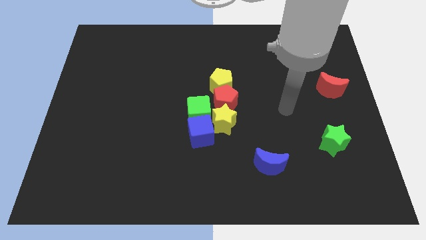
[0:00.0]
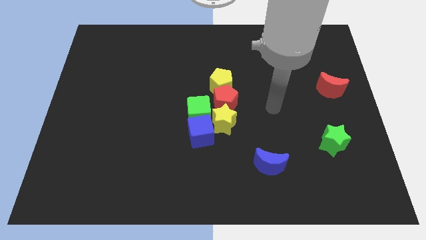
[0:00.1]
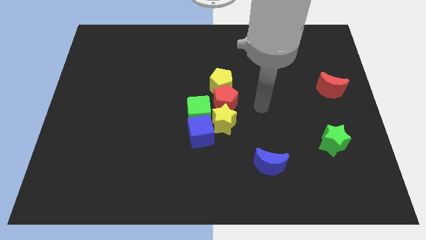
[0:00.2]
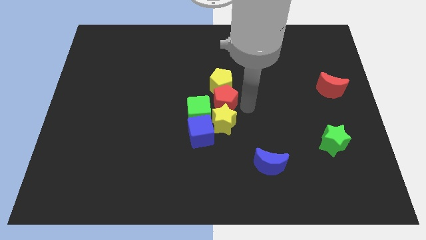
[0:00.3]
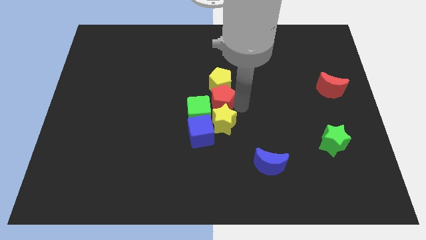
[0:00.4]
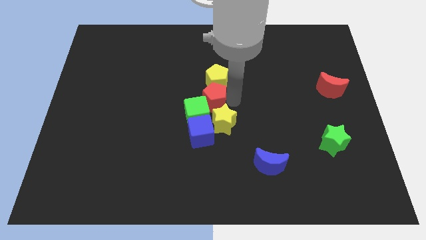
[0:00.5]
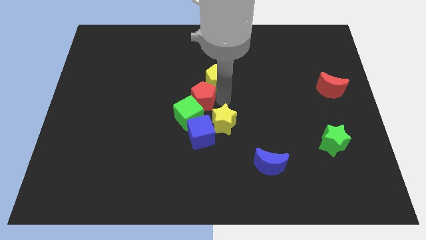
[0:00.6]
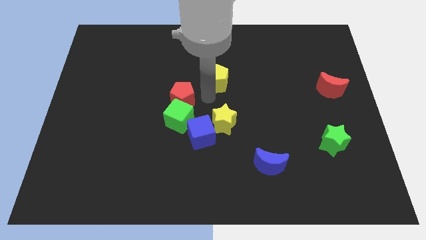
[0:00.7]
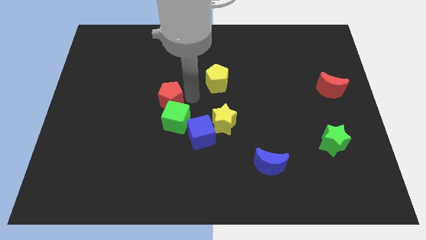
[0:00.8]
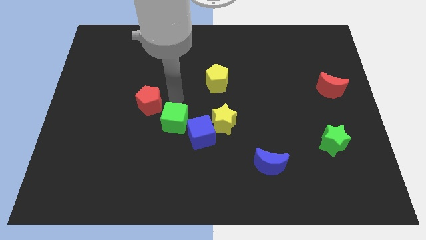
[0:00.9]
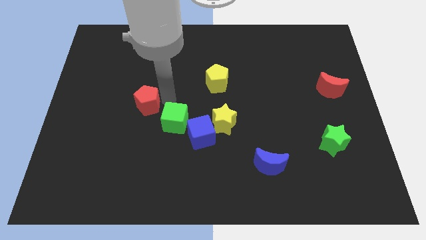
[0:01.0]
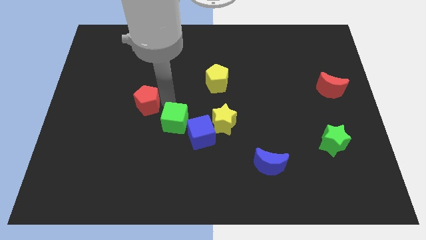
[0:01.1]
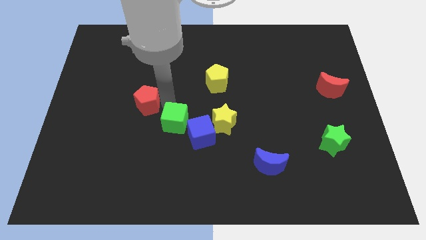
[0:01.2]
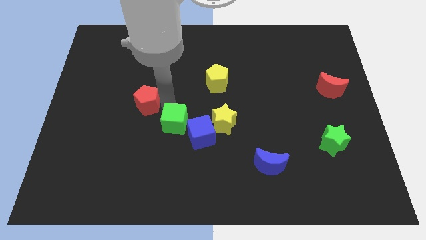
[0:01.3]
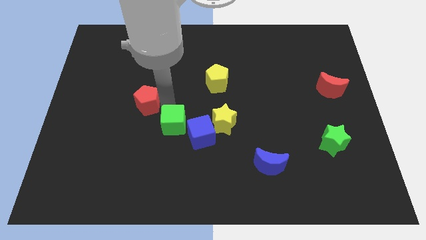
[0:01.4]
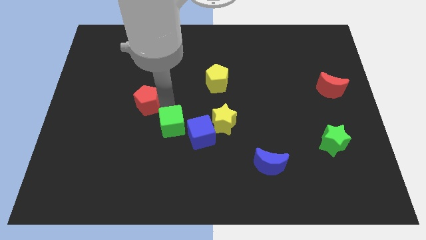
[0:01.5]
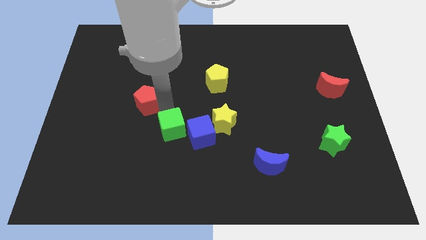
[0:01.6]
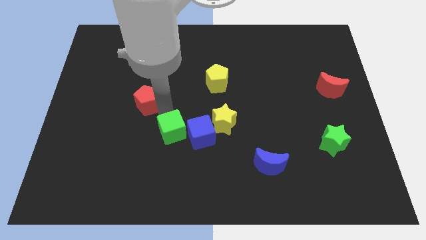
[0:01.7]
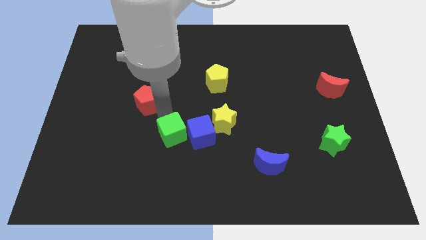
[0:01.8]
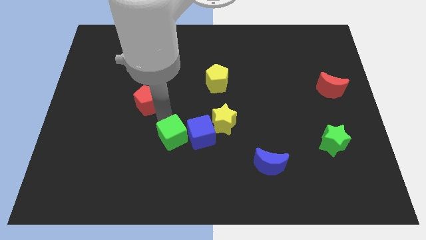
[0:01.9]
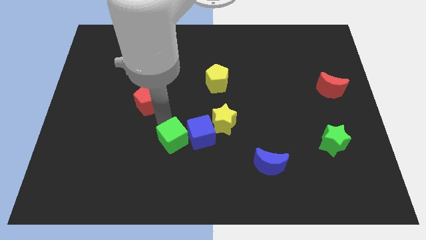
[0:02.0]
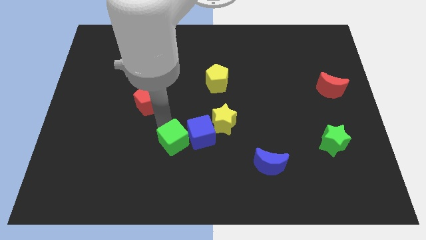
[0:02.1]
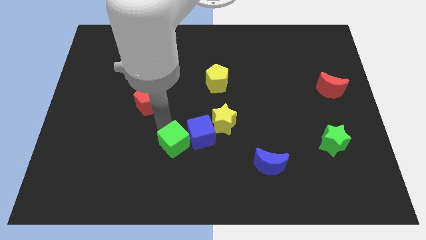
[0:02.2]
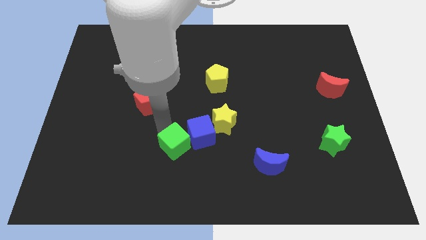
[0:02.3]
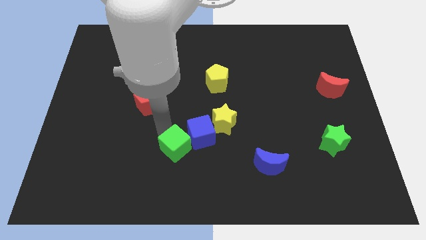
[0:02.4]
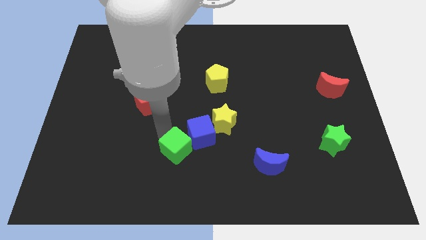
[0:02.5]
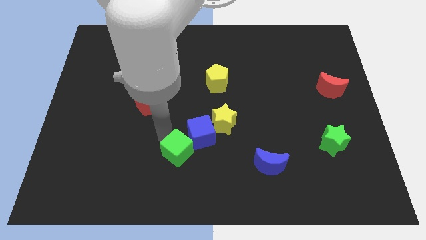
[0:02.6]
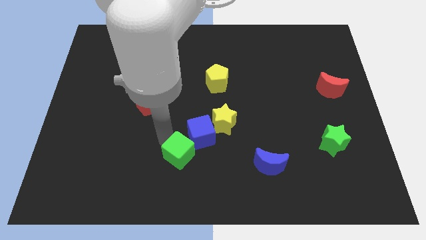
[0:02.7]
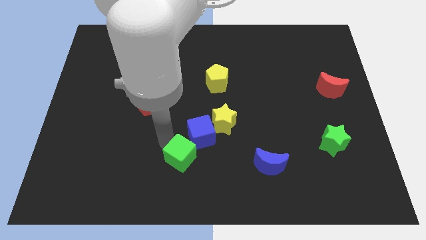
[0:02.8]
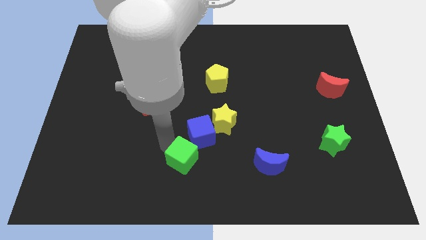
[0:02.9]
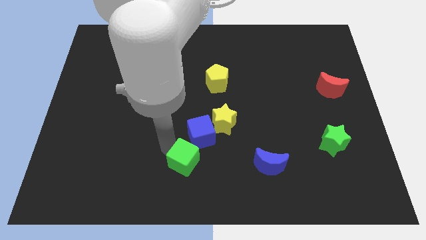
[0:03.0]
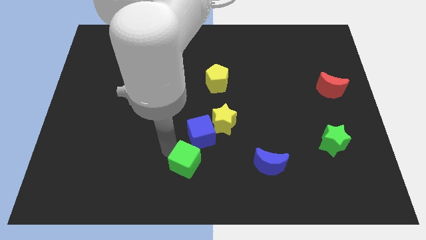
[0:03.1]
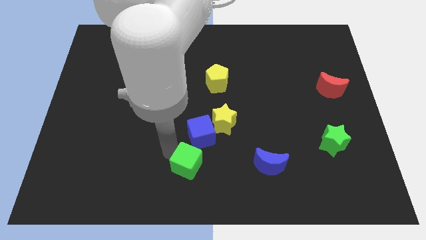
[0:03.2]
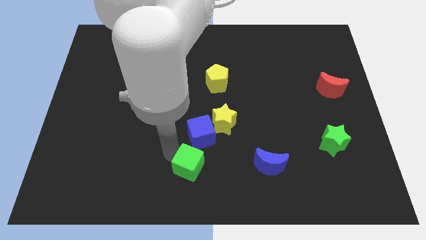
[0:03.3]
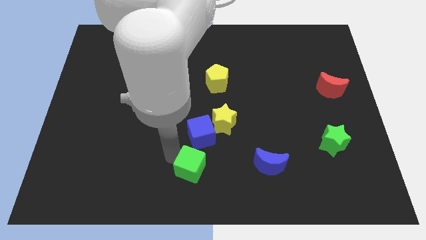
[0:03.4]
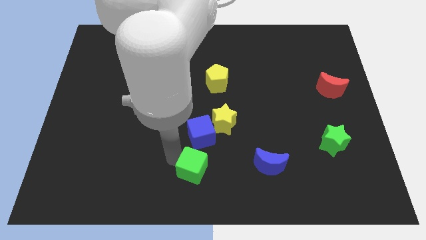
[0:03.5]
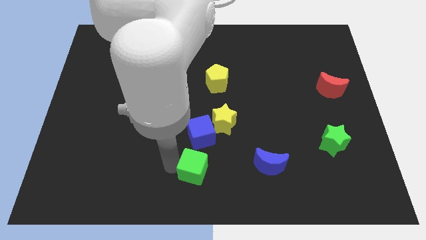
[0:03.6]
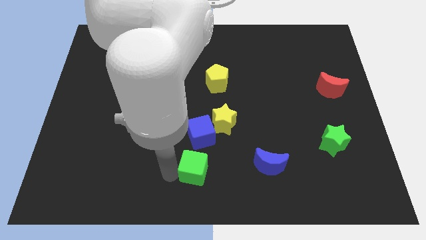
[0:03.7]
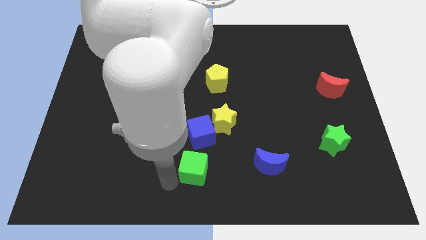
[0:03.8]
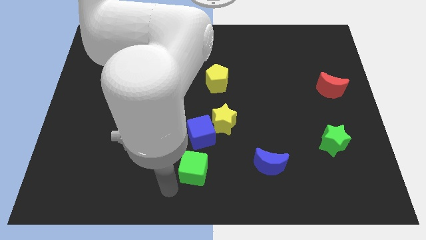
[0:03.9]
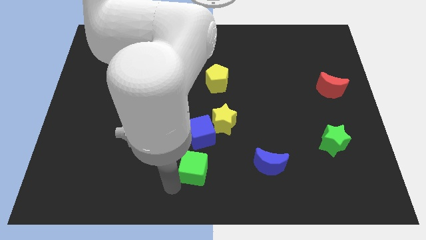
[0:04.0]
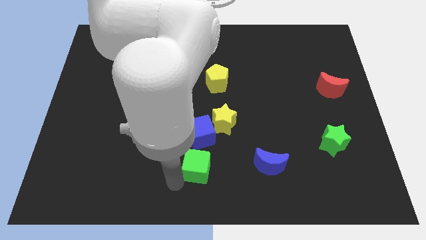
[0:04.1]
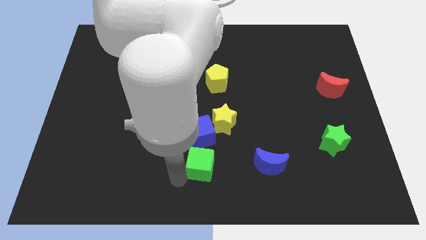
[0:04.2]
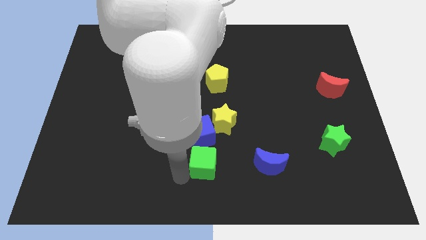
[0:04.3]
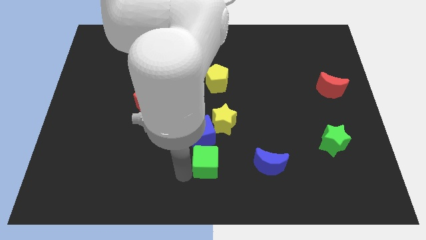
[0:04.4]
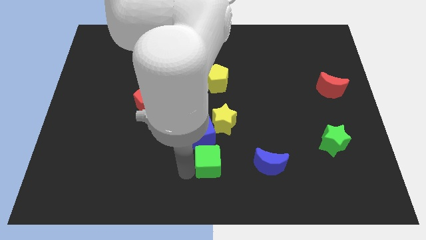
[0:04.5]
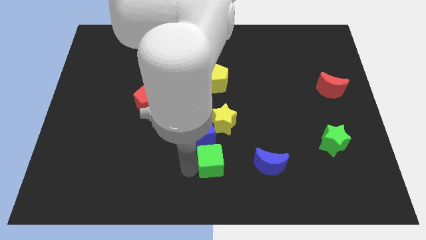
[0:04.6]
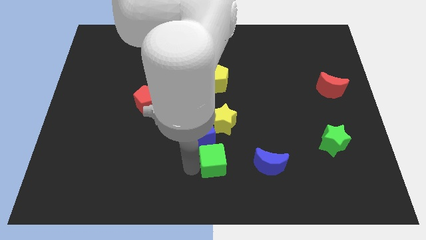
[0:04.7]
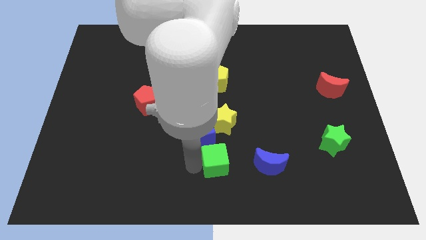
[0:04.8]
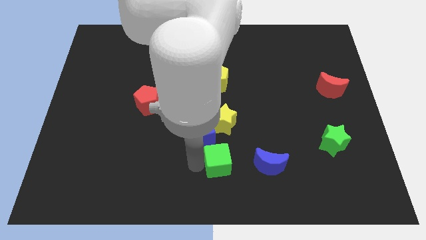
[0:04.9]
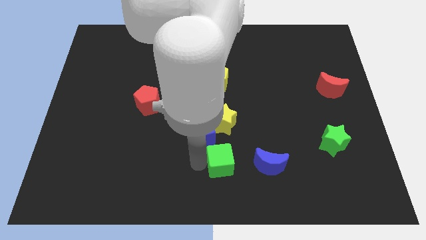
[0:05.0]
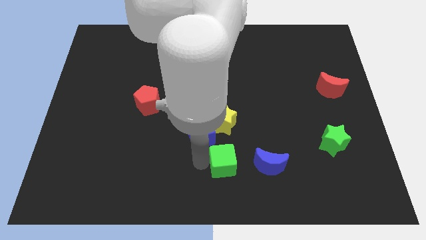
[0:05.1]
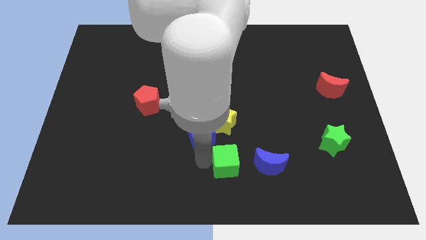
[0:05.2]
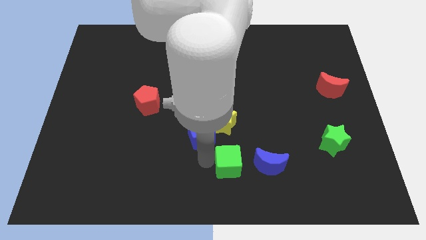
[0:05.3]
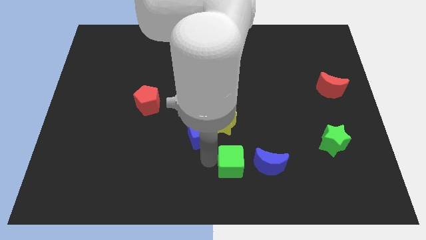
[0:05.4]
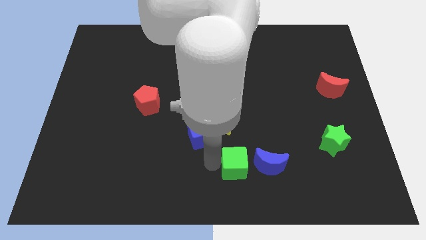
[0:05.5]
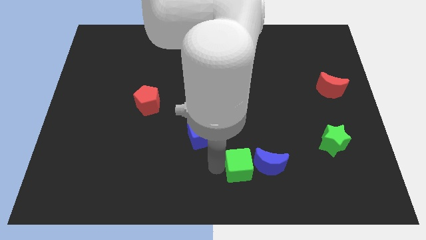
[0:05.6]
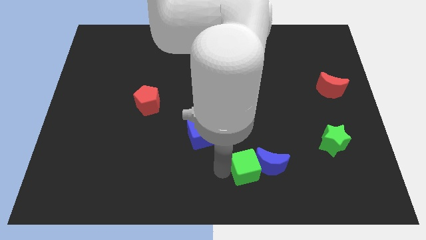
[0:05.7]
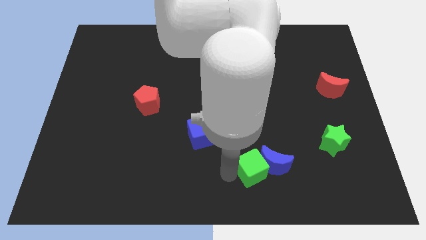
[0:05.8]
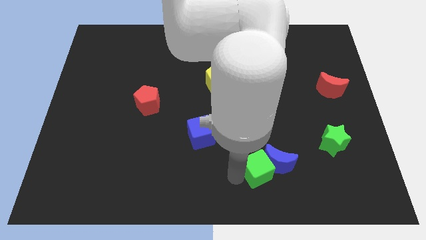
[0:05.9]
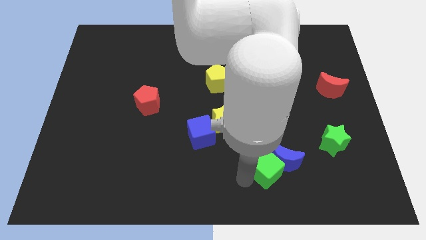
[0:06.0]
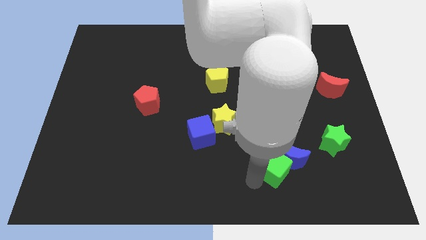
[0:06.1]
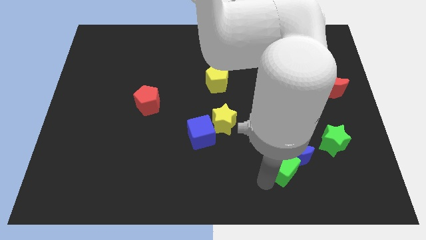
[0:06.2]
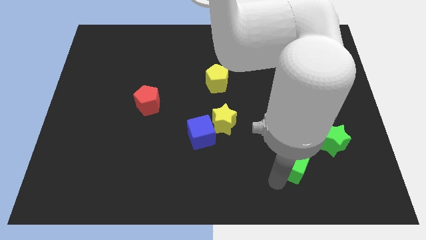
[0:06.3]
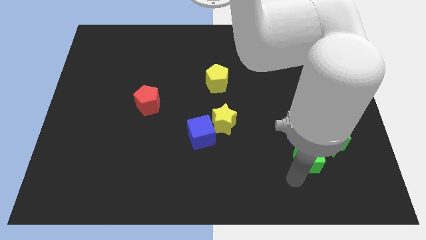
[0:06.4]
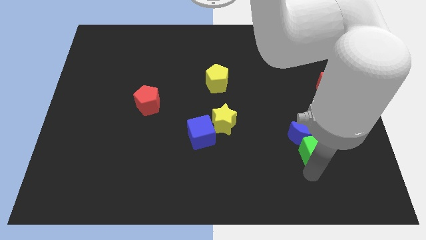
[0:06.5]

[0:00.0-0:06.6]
move the green cube to the green star
